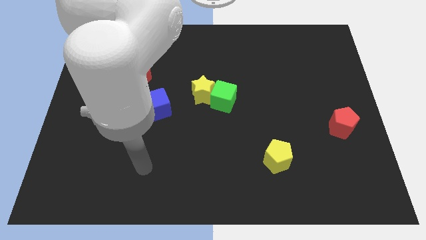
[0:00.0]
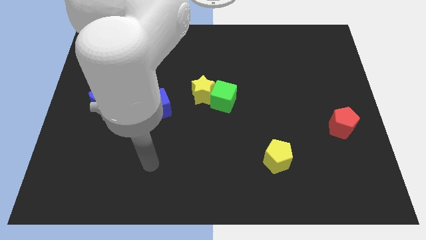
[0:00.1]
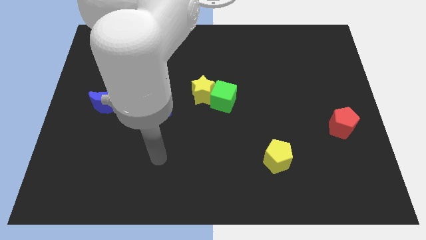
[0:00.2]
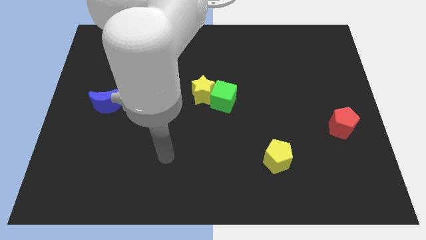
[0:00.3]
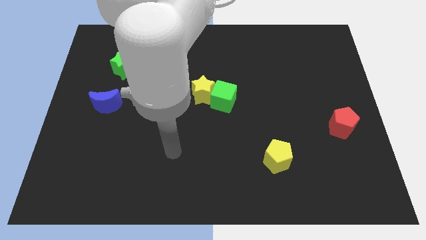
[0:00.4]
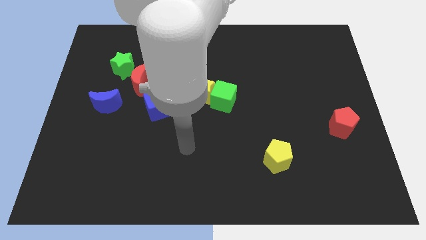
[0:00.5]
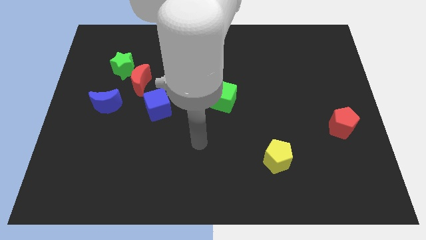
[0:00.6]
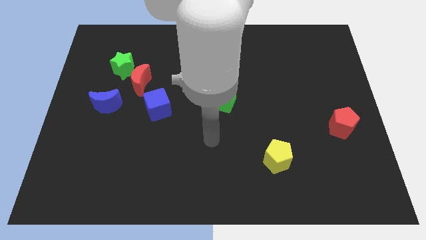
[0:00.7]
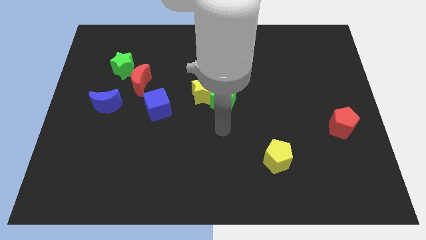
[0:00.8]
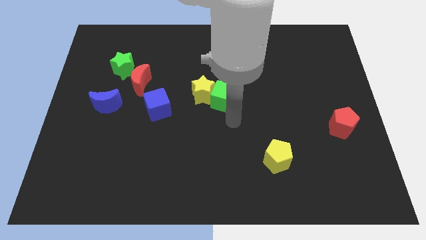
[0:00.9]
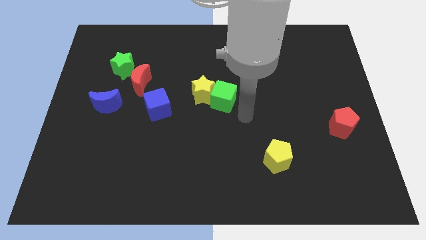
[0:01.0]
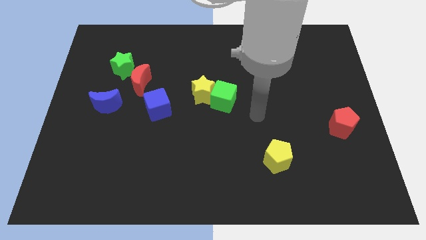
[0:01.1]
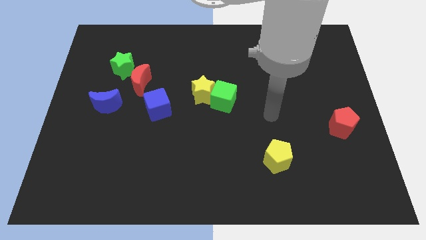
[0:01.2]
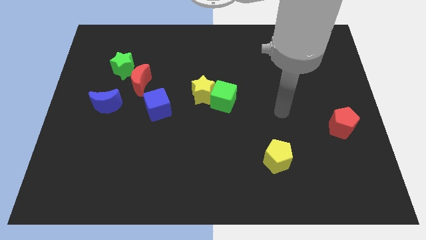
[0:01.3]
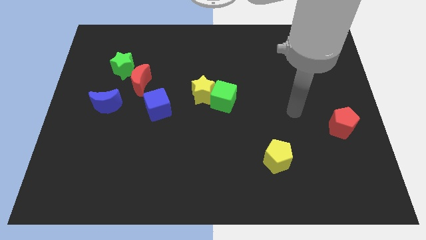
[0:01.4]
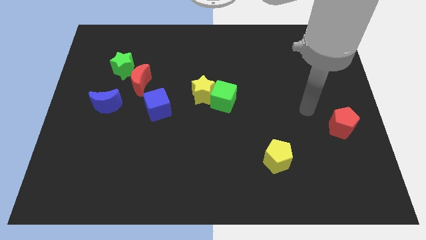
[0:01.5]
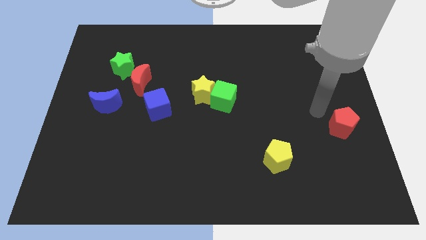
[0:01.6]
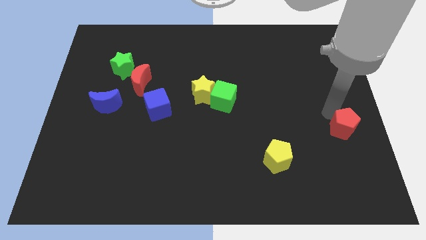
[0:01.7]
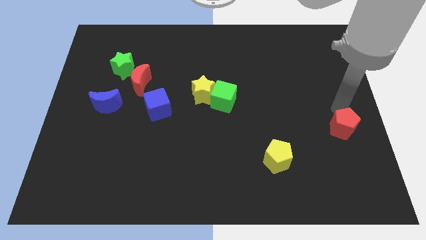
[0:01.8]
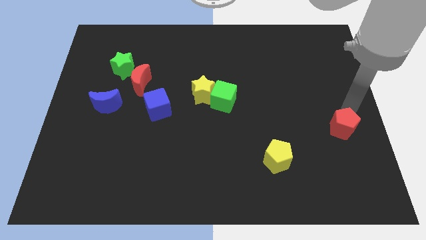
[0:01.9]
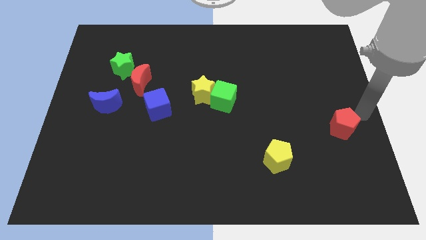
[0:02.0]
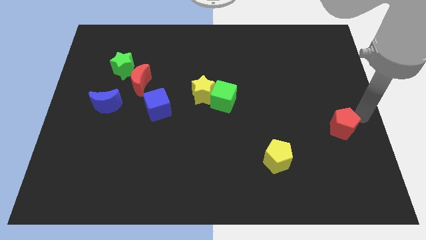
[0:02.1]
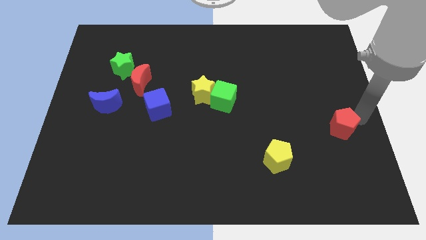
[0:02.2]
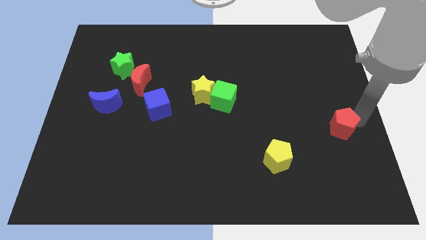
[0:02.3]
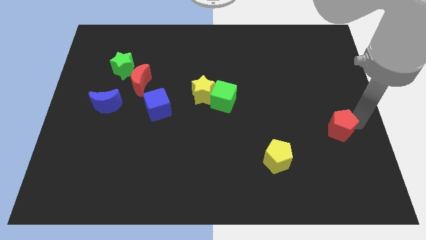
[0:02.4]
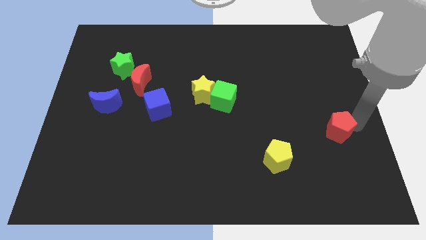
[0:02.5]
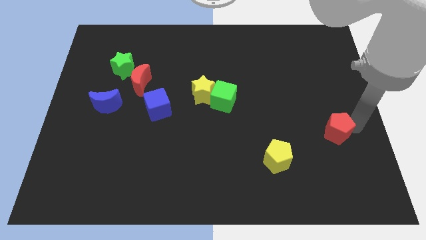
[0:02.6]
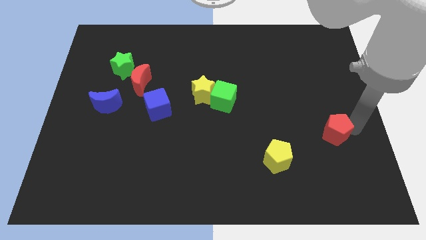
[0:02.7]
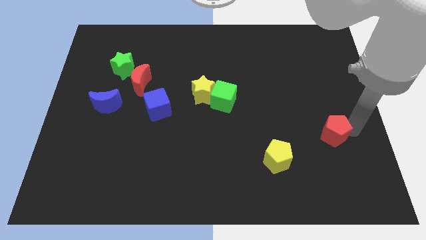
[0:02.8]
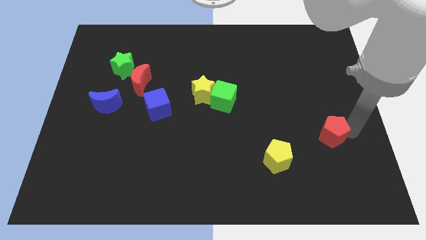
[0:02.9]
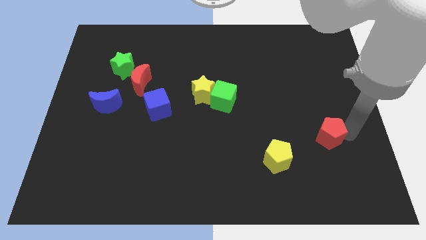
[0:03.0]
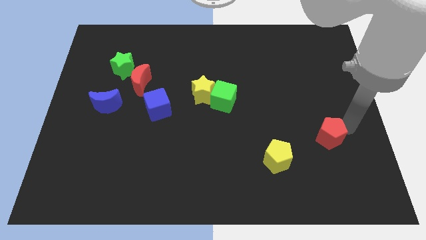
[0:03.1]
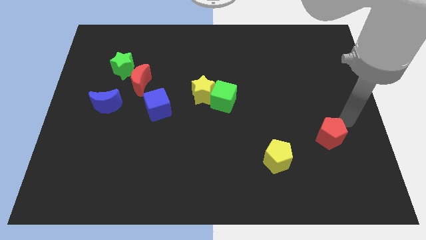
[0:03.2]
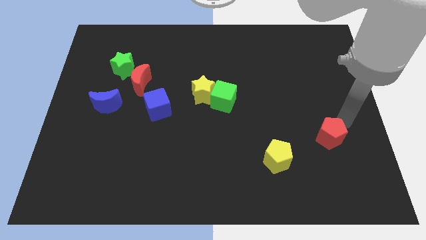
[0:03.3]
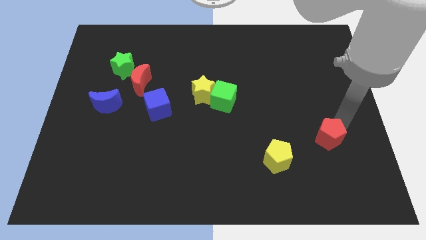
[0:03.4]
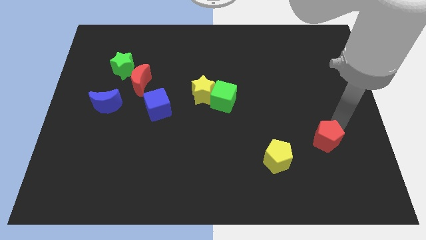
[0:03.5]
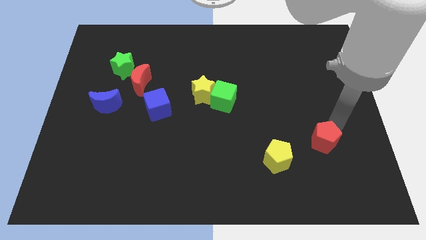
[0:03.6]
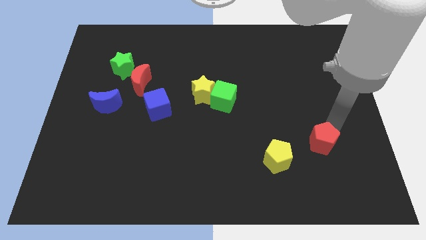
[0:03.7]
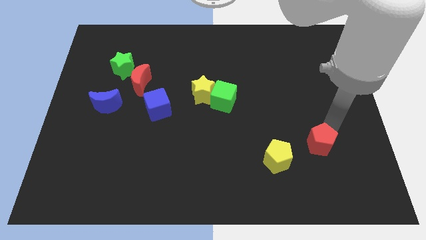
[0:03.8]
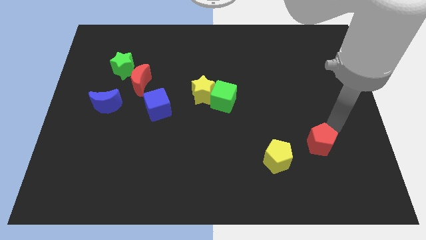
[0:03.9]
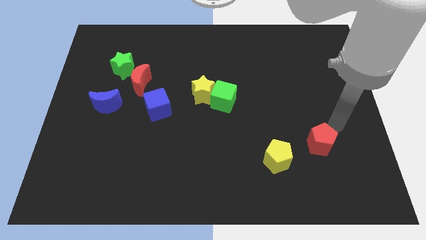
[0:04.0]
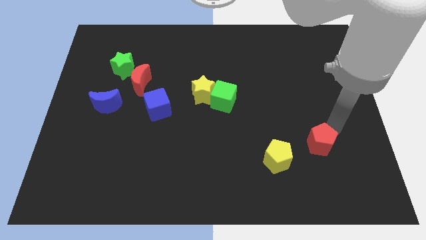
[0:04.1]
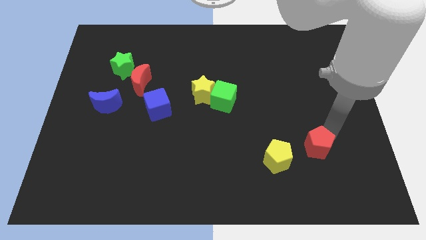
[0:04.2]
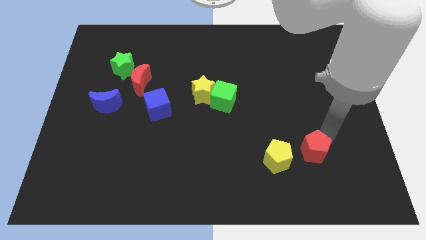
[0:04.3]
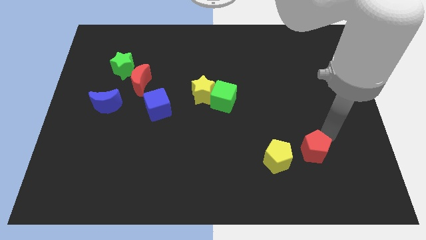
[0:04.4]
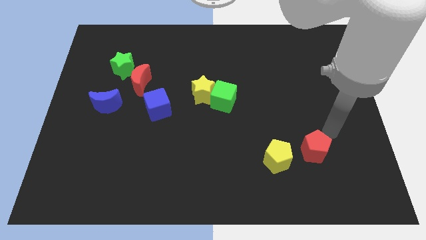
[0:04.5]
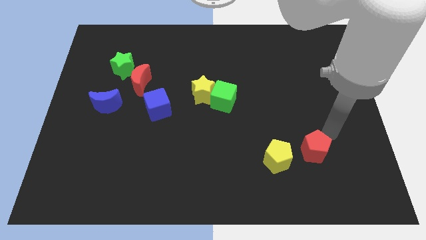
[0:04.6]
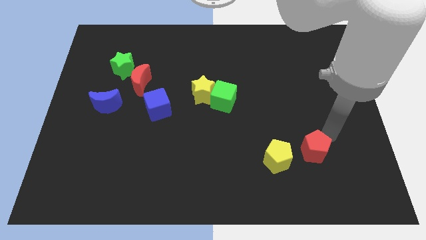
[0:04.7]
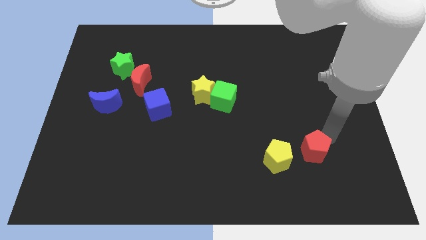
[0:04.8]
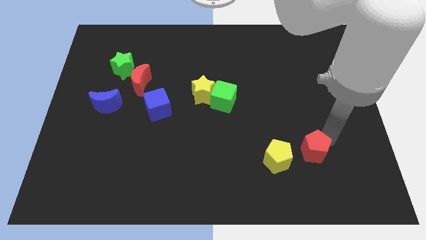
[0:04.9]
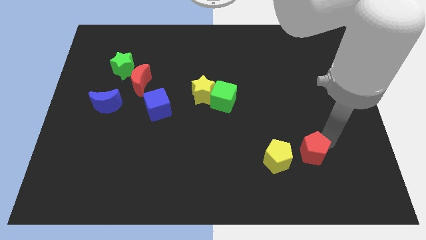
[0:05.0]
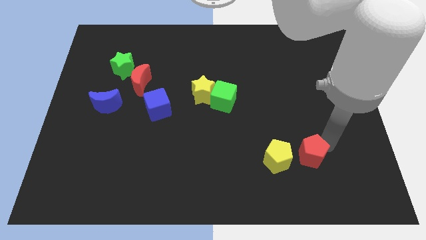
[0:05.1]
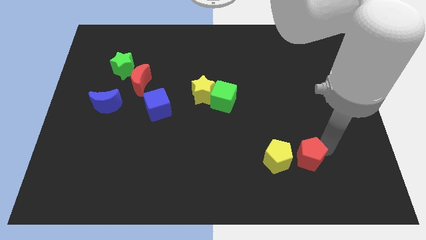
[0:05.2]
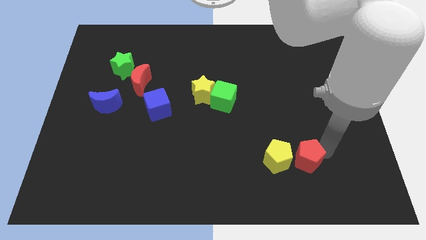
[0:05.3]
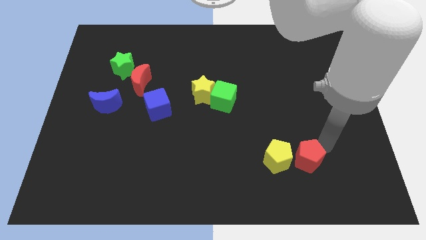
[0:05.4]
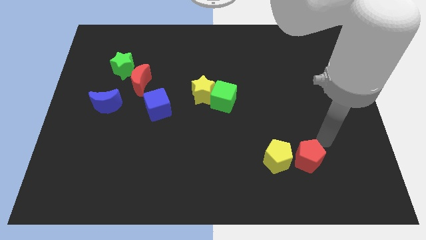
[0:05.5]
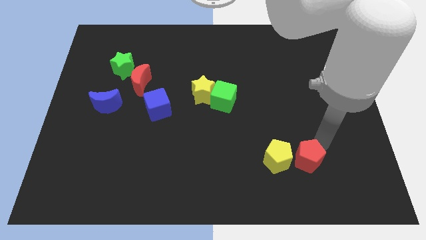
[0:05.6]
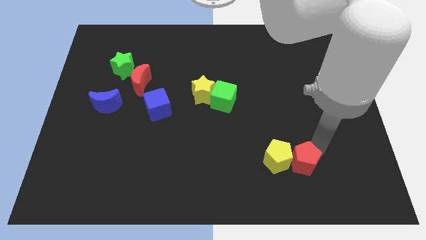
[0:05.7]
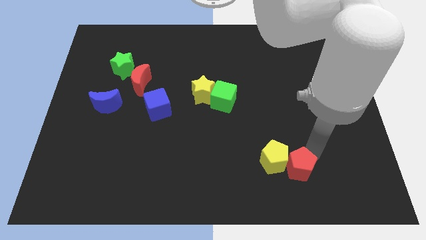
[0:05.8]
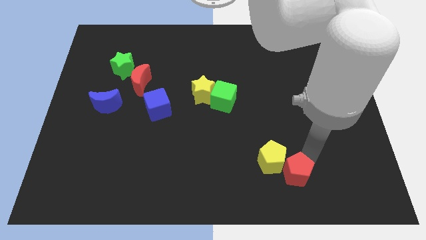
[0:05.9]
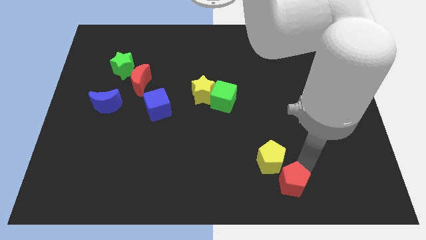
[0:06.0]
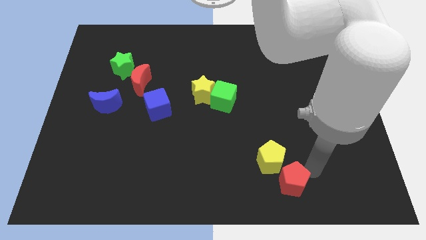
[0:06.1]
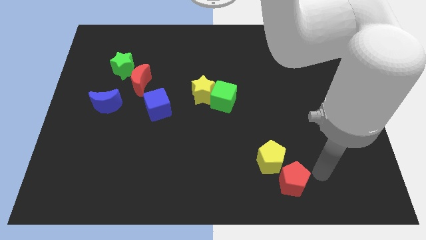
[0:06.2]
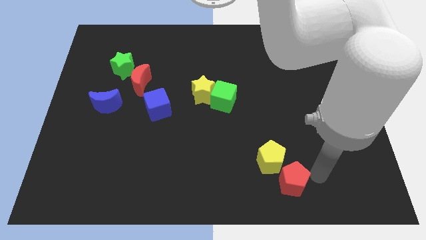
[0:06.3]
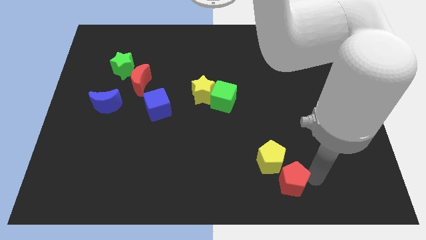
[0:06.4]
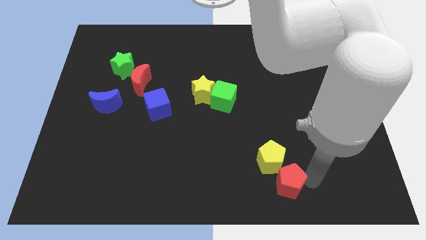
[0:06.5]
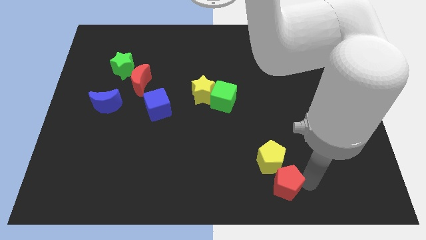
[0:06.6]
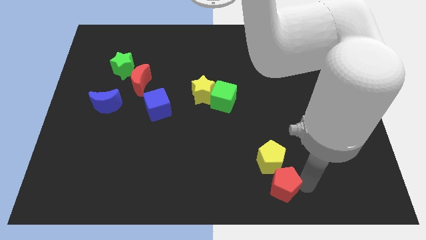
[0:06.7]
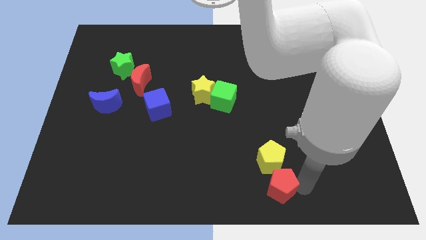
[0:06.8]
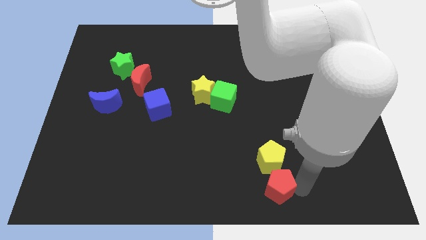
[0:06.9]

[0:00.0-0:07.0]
push the red pentagon to the bottom side
